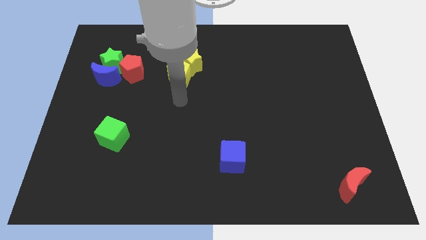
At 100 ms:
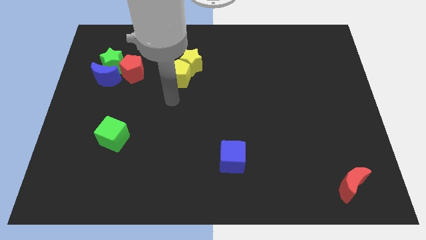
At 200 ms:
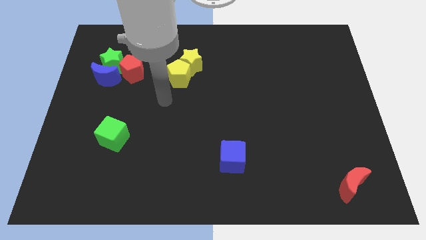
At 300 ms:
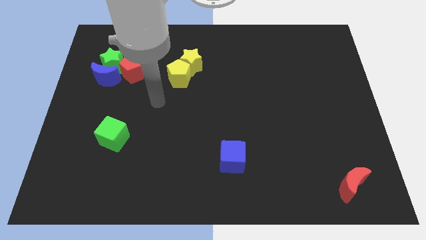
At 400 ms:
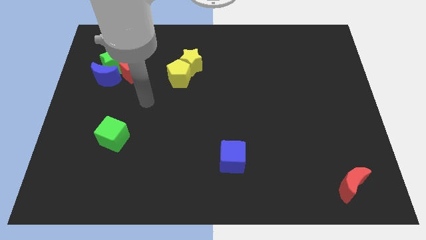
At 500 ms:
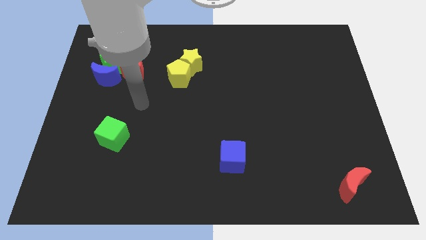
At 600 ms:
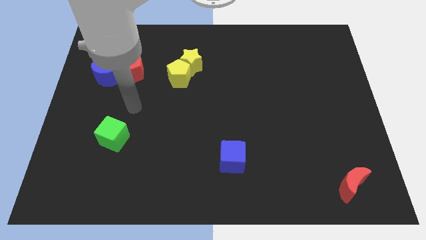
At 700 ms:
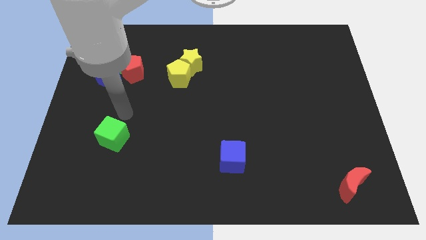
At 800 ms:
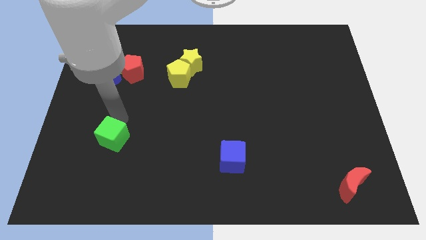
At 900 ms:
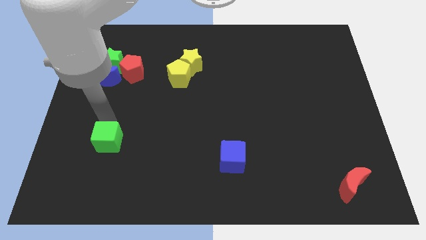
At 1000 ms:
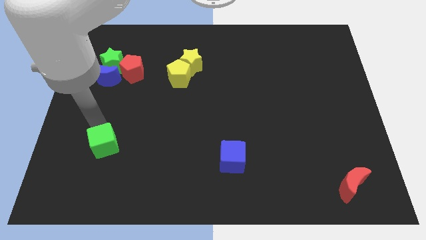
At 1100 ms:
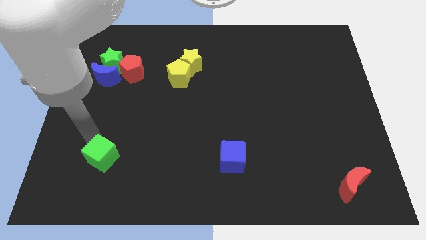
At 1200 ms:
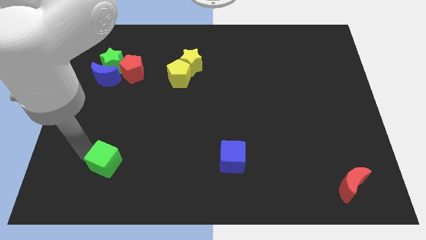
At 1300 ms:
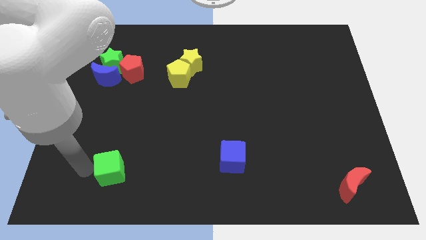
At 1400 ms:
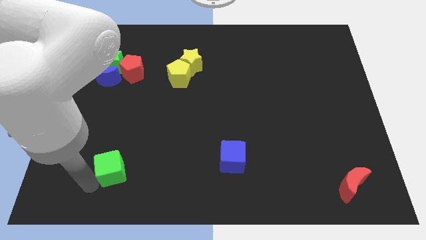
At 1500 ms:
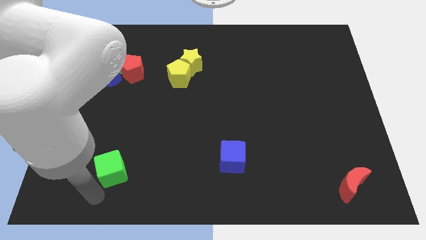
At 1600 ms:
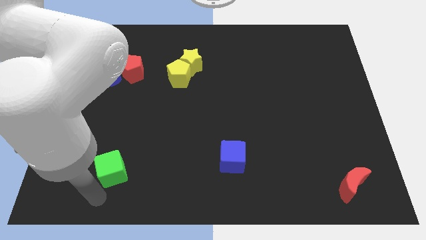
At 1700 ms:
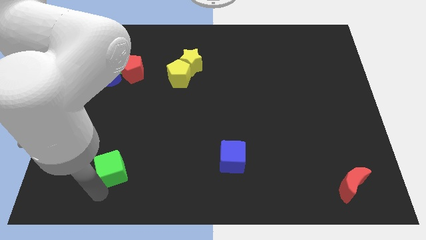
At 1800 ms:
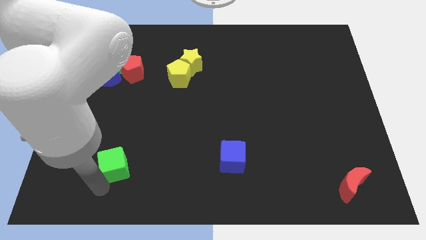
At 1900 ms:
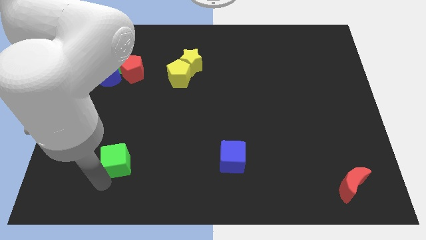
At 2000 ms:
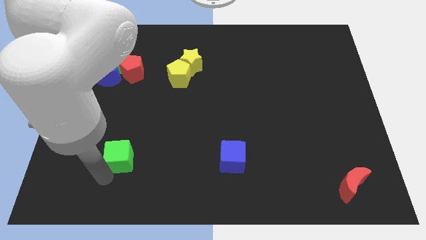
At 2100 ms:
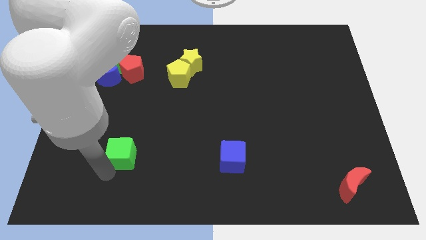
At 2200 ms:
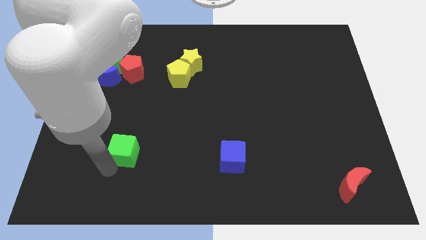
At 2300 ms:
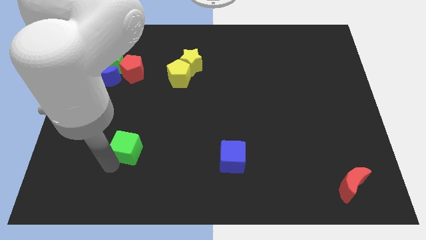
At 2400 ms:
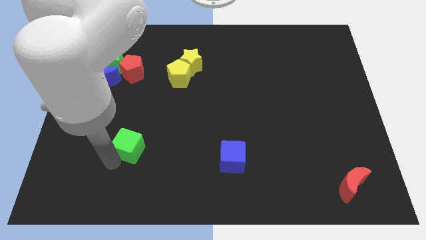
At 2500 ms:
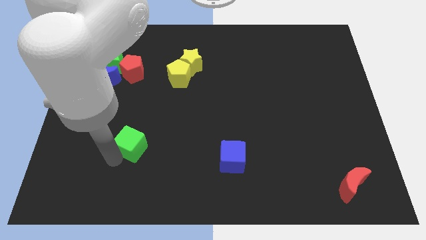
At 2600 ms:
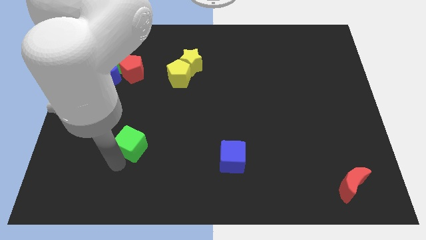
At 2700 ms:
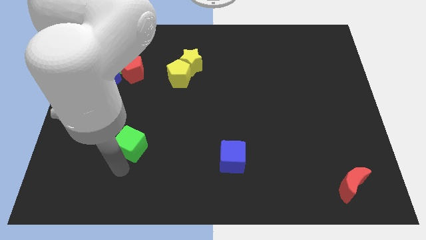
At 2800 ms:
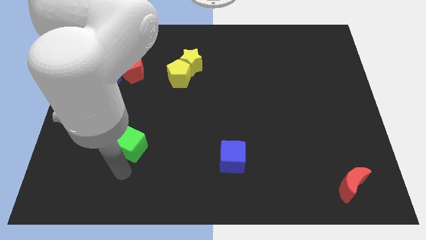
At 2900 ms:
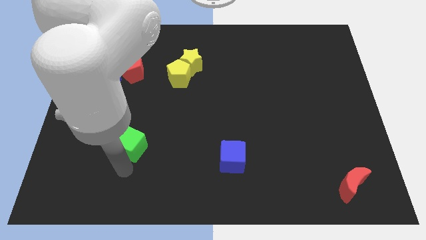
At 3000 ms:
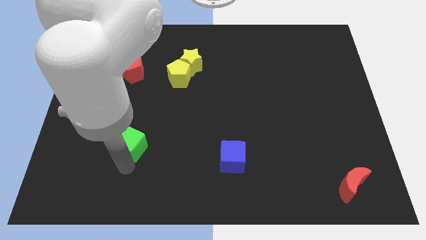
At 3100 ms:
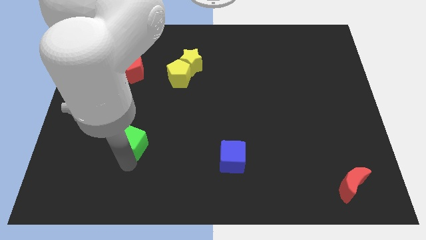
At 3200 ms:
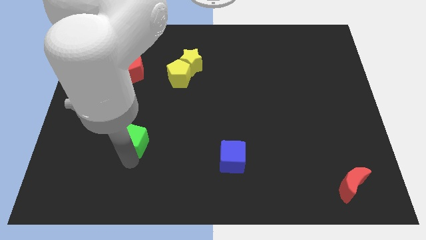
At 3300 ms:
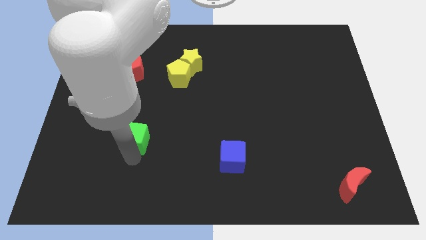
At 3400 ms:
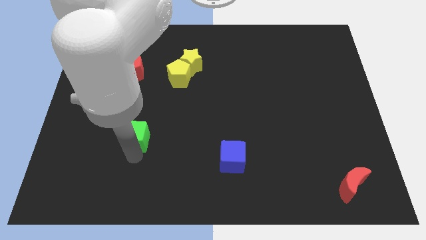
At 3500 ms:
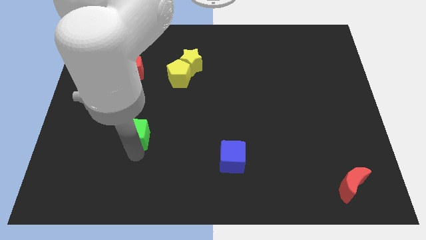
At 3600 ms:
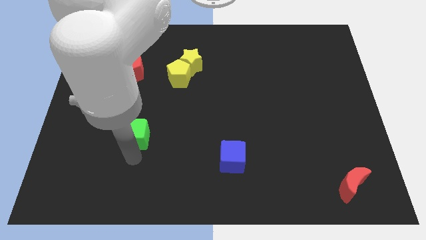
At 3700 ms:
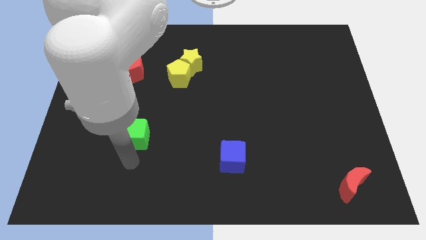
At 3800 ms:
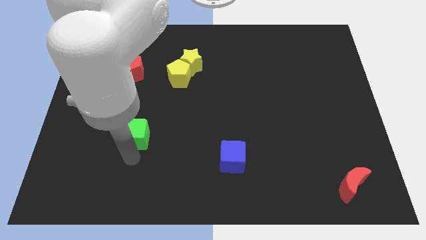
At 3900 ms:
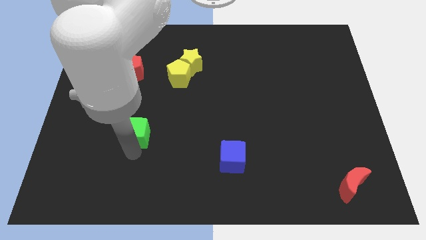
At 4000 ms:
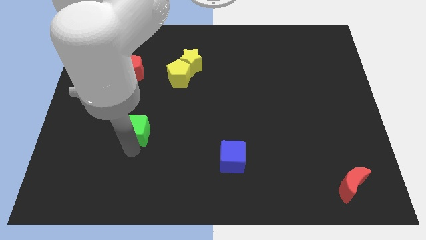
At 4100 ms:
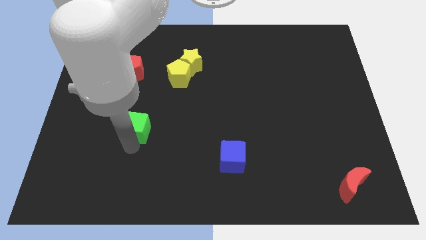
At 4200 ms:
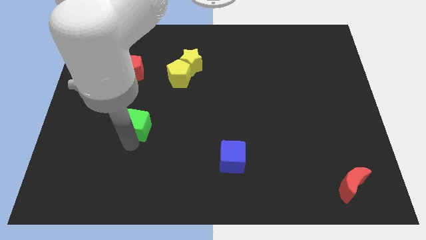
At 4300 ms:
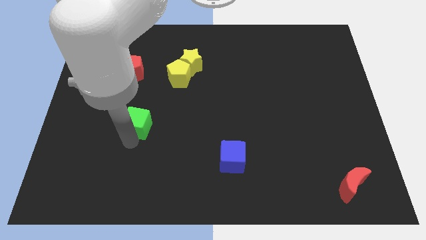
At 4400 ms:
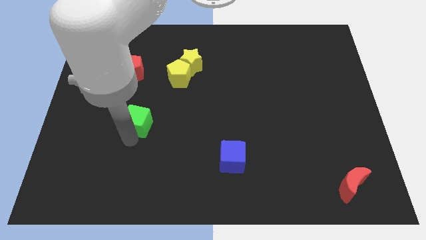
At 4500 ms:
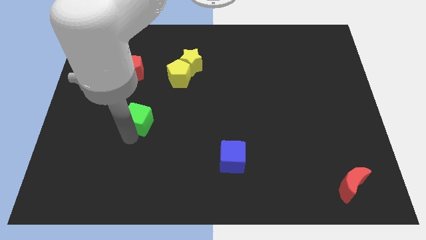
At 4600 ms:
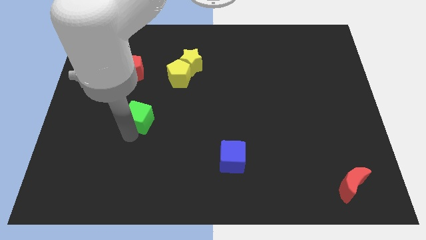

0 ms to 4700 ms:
slightly move the green cube up and then right

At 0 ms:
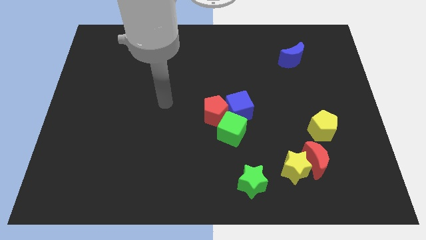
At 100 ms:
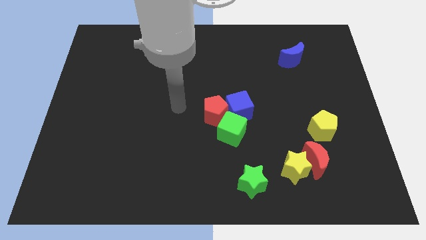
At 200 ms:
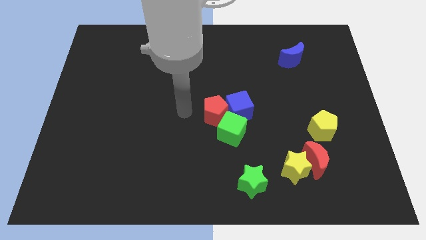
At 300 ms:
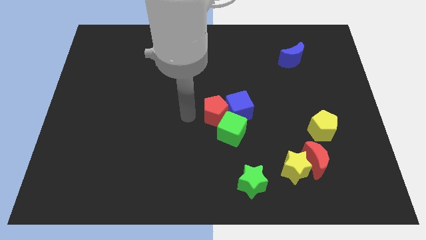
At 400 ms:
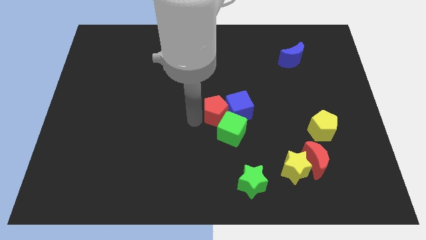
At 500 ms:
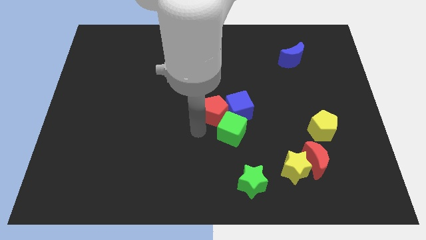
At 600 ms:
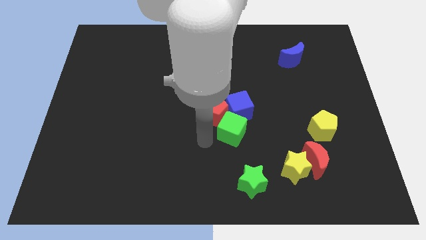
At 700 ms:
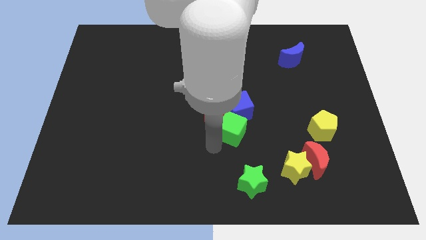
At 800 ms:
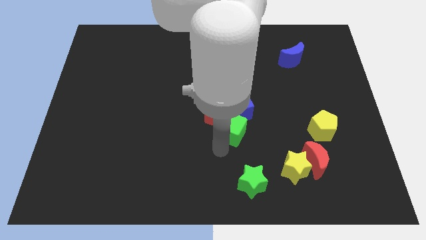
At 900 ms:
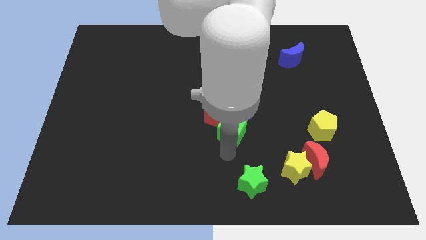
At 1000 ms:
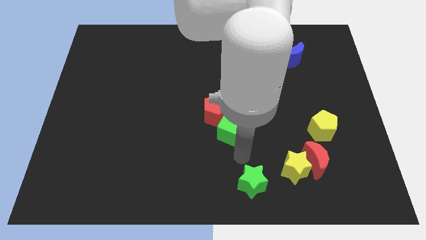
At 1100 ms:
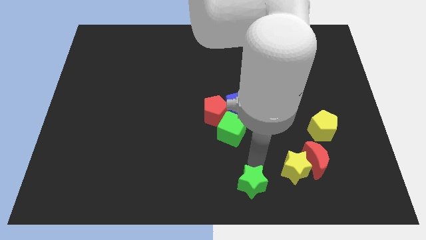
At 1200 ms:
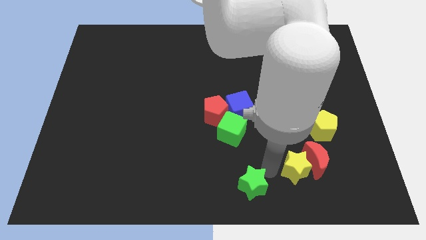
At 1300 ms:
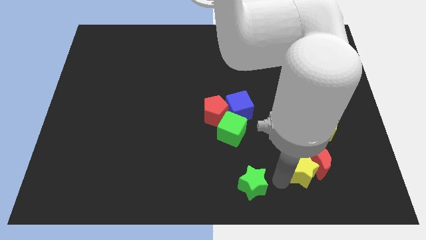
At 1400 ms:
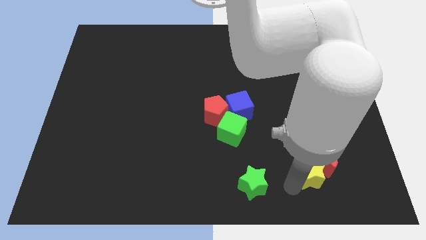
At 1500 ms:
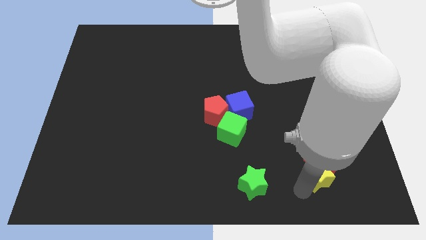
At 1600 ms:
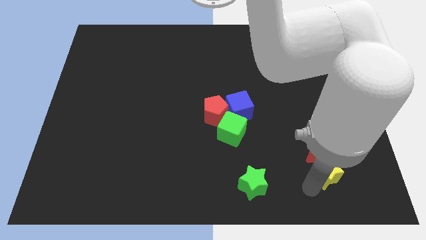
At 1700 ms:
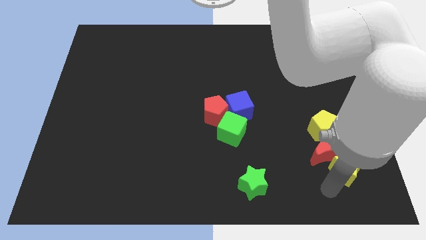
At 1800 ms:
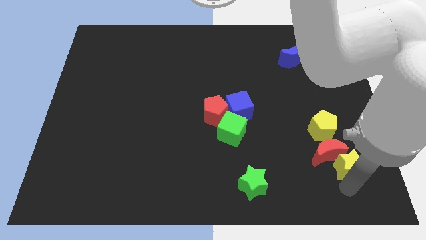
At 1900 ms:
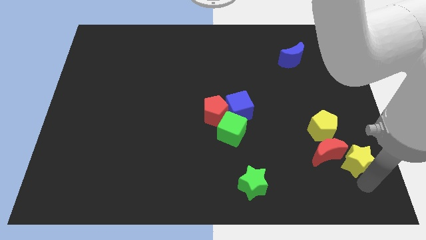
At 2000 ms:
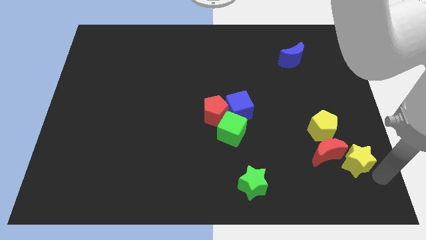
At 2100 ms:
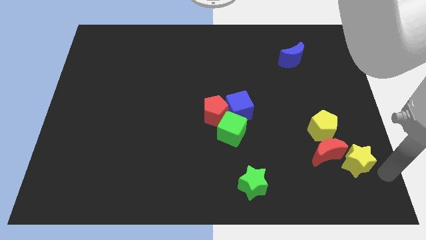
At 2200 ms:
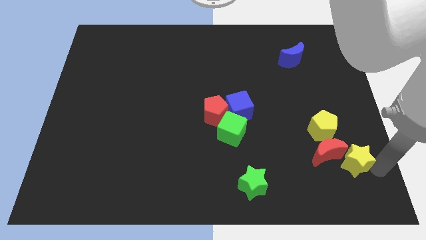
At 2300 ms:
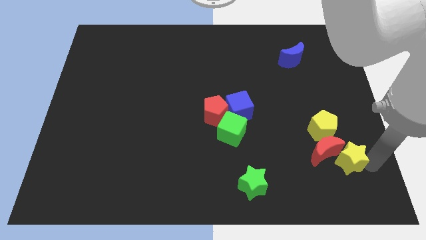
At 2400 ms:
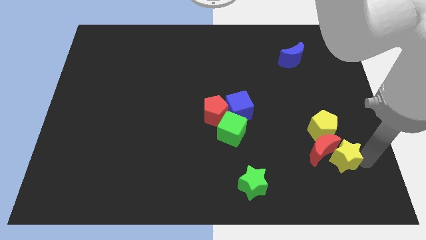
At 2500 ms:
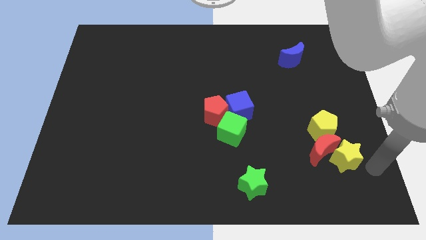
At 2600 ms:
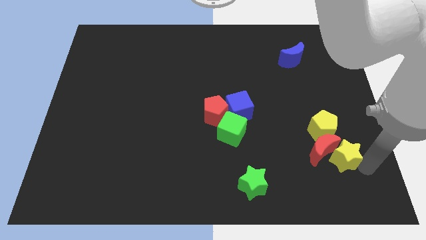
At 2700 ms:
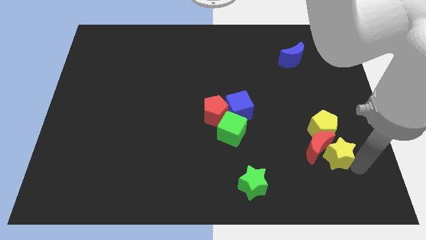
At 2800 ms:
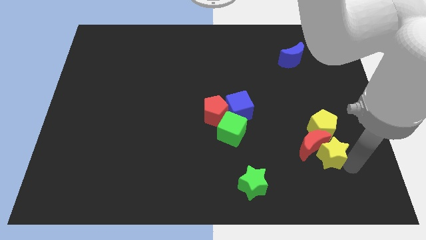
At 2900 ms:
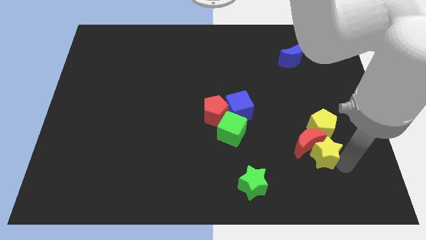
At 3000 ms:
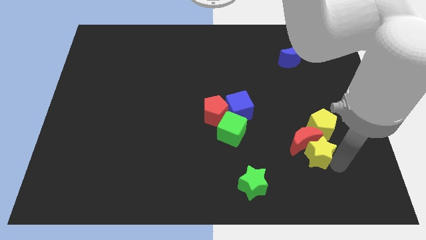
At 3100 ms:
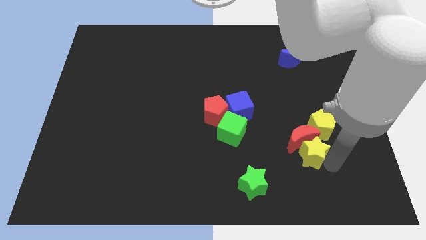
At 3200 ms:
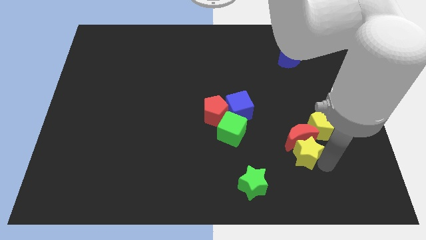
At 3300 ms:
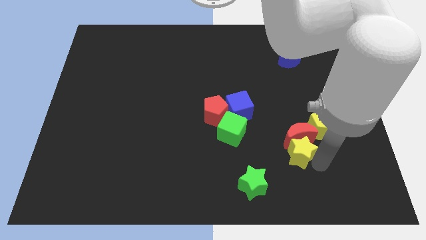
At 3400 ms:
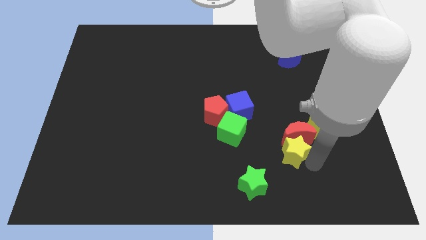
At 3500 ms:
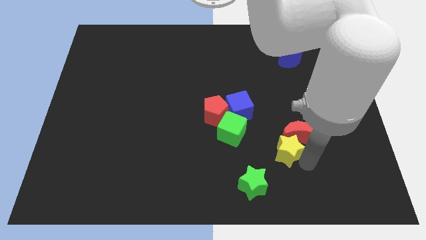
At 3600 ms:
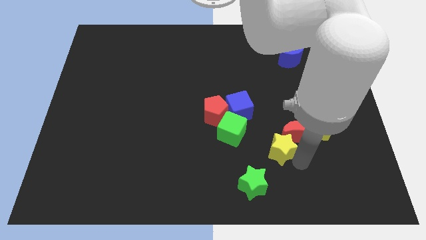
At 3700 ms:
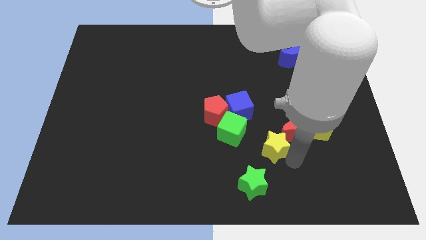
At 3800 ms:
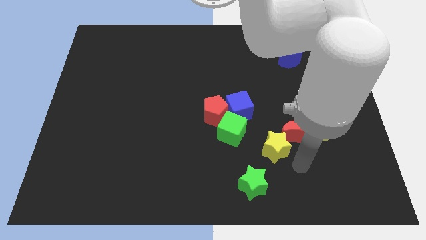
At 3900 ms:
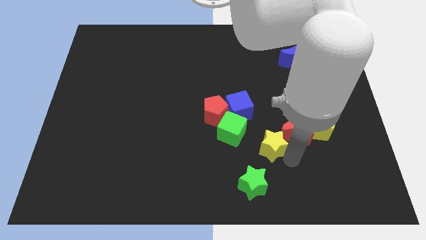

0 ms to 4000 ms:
push the yellow star a bit upwards and left diagonally
